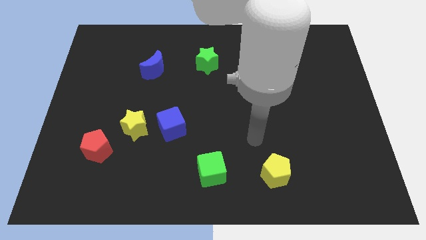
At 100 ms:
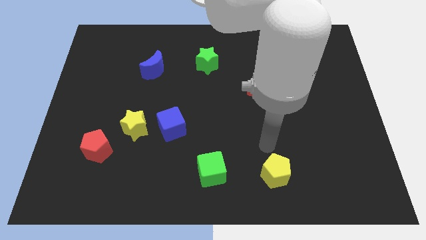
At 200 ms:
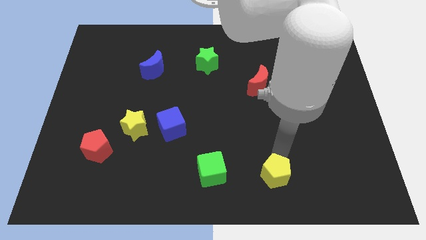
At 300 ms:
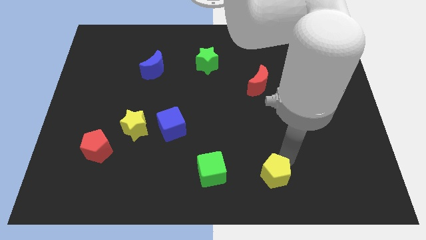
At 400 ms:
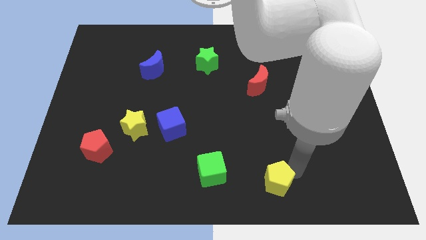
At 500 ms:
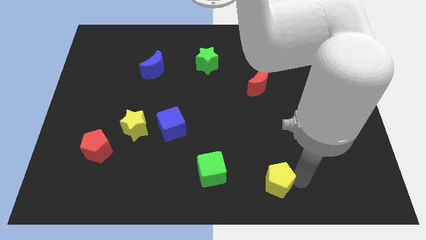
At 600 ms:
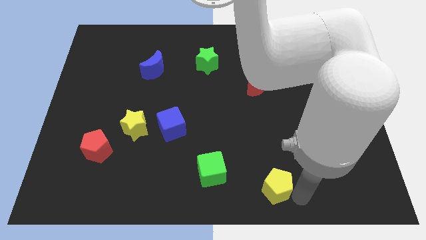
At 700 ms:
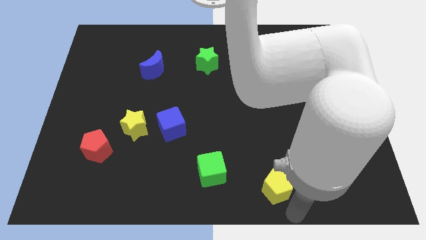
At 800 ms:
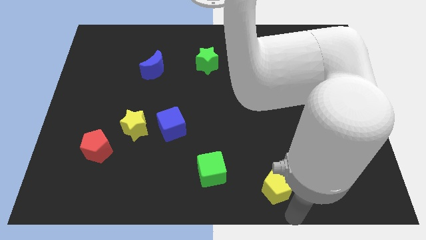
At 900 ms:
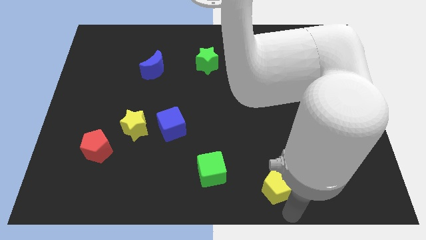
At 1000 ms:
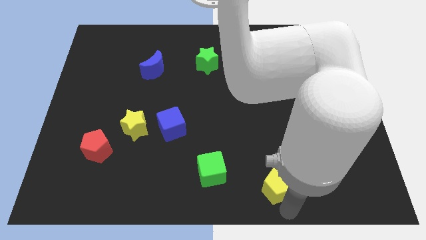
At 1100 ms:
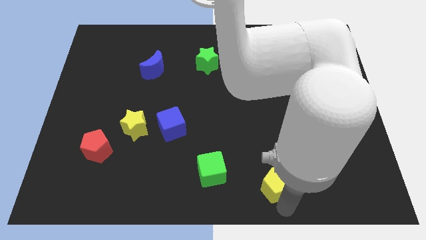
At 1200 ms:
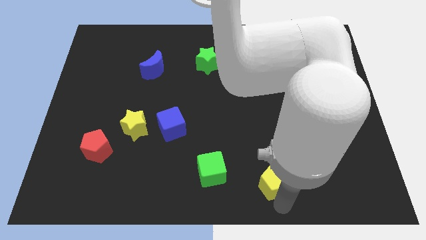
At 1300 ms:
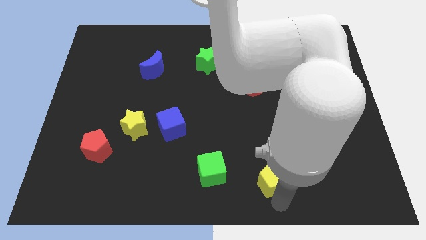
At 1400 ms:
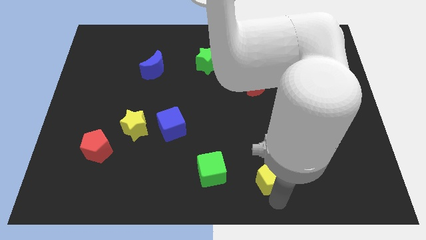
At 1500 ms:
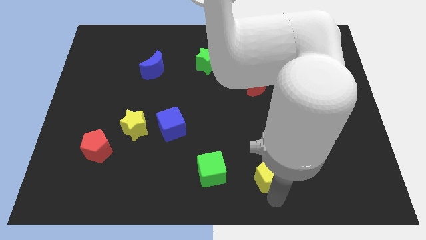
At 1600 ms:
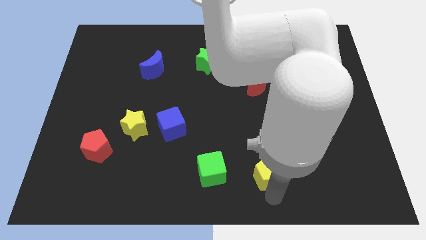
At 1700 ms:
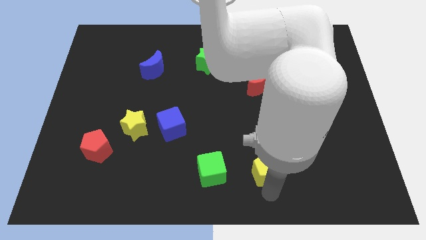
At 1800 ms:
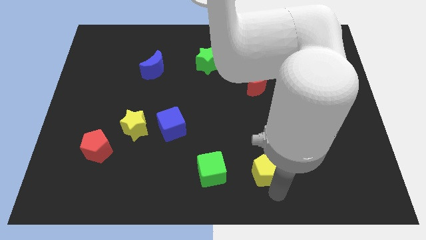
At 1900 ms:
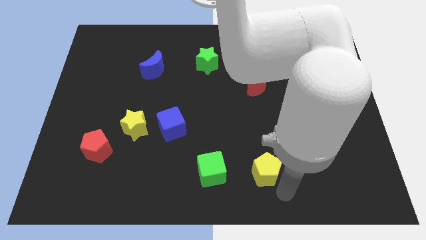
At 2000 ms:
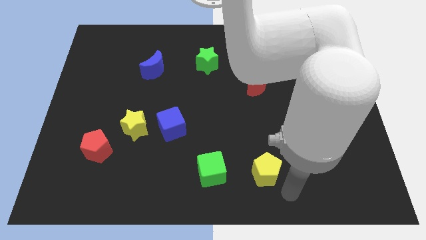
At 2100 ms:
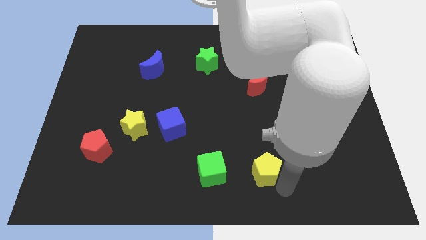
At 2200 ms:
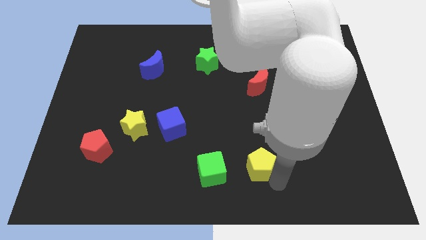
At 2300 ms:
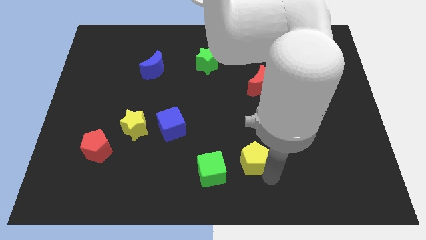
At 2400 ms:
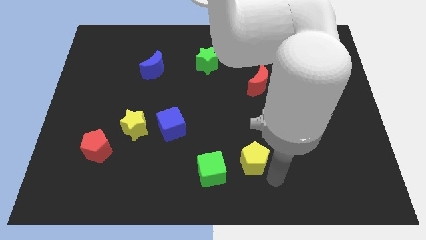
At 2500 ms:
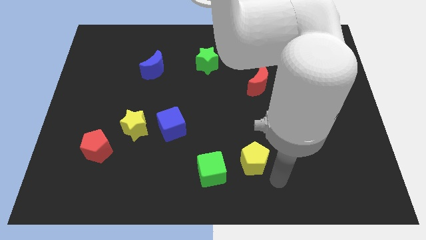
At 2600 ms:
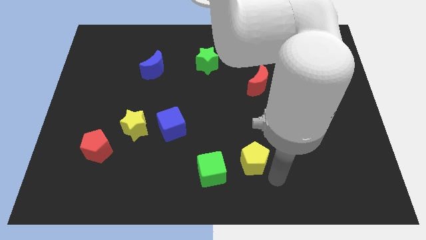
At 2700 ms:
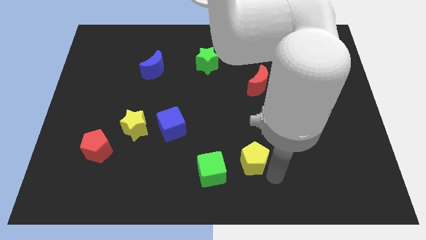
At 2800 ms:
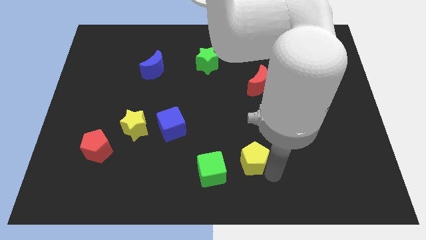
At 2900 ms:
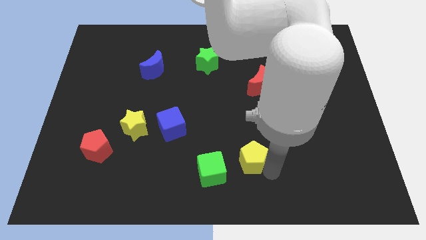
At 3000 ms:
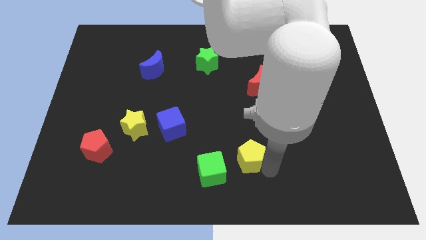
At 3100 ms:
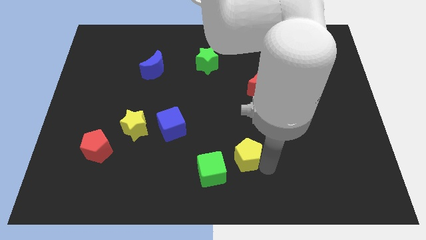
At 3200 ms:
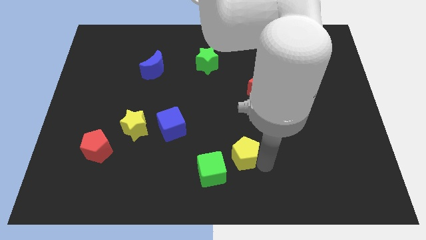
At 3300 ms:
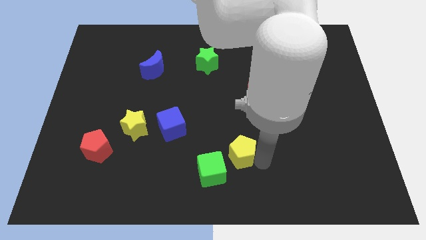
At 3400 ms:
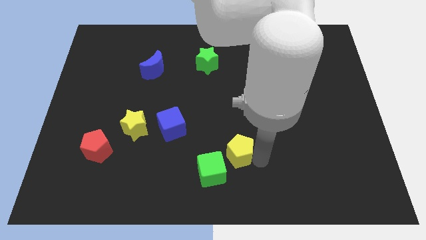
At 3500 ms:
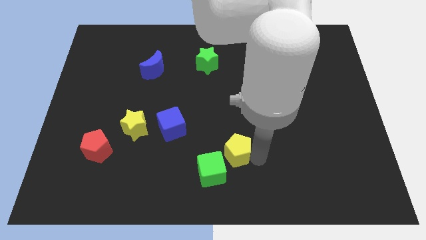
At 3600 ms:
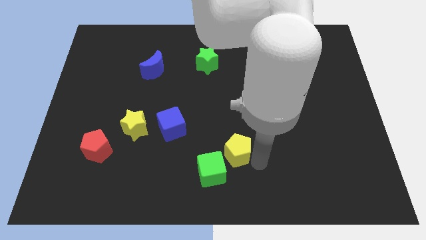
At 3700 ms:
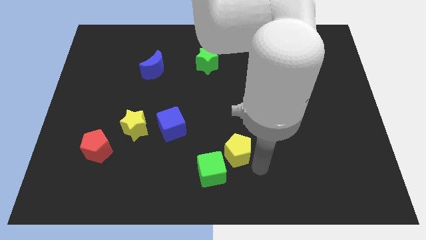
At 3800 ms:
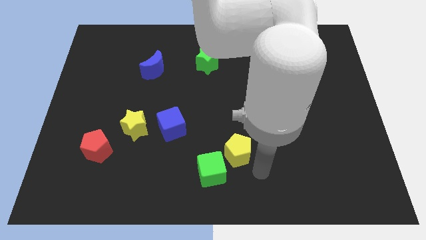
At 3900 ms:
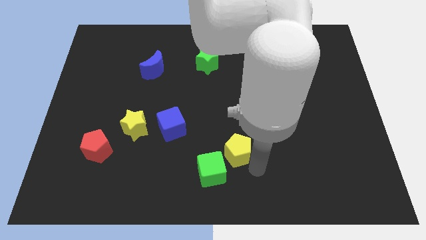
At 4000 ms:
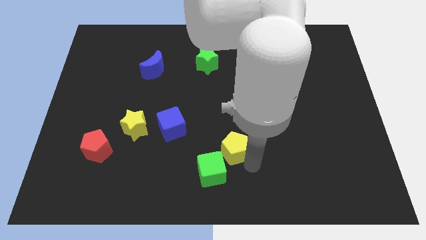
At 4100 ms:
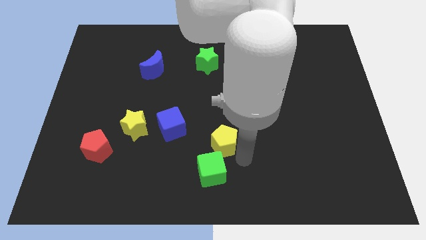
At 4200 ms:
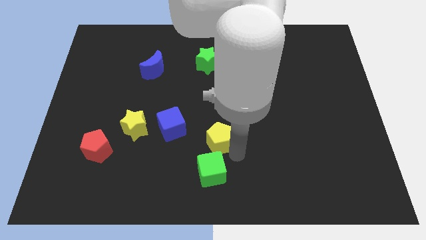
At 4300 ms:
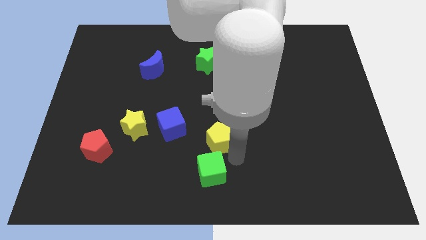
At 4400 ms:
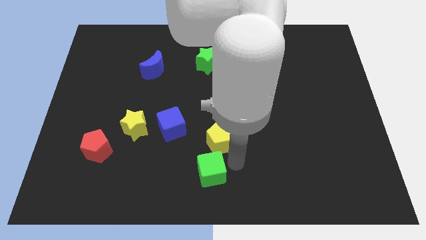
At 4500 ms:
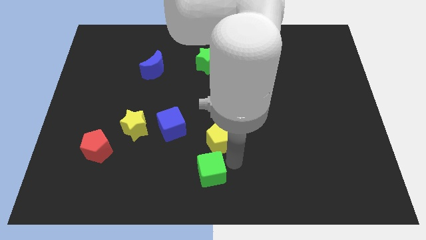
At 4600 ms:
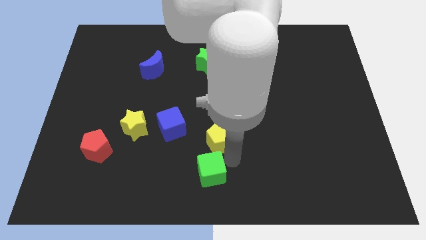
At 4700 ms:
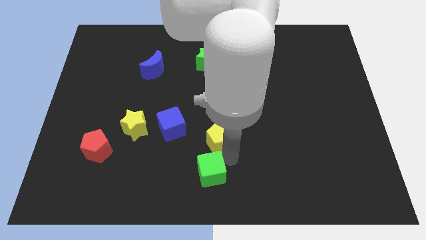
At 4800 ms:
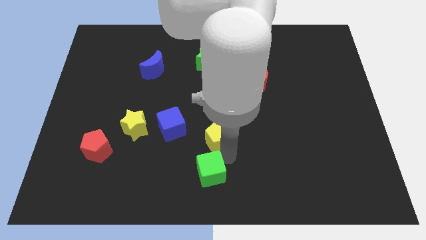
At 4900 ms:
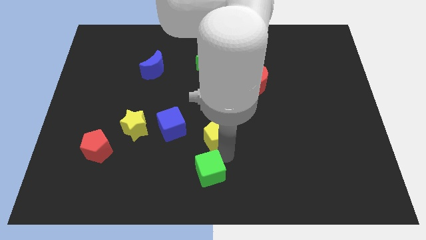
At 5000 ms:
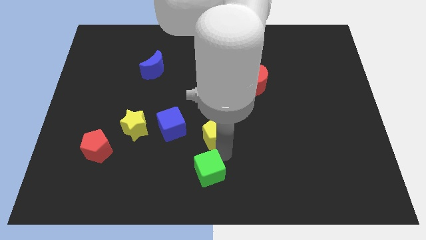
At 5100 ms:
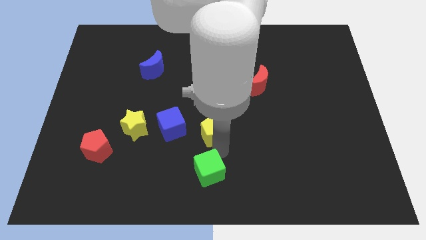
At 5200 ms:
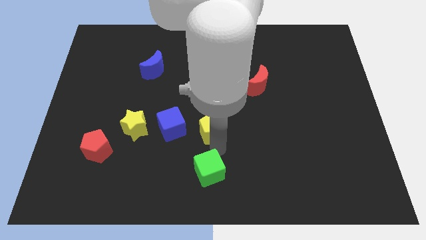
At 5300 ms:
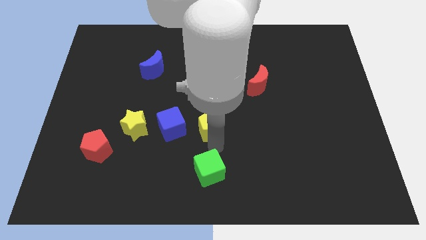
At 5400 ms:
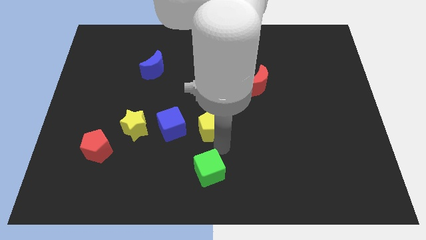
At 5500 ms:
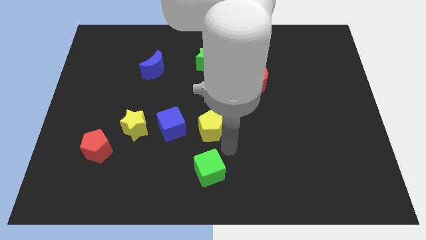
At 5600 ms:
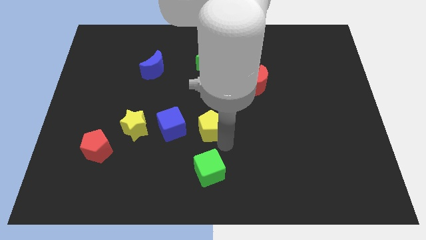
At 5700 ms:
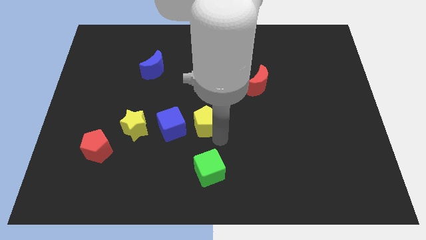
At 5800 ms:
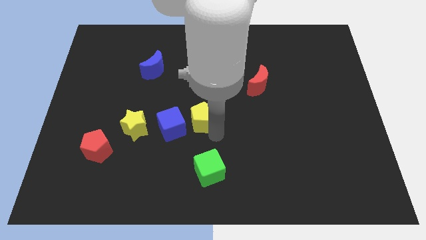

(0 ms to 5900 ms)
move the yellow pentagon upwards and left

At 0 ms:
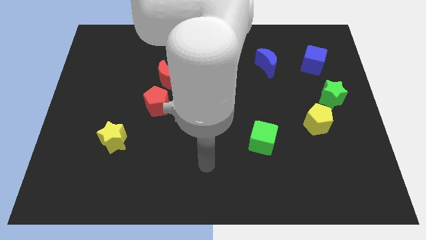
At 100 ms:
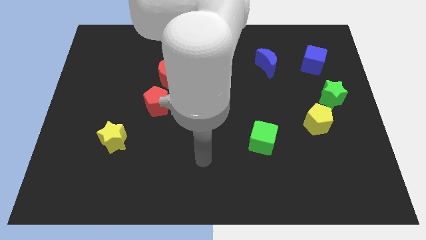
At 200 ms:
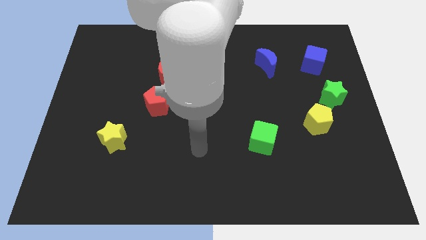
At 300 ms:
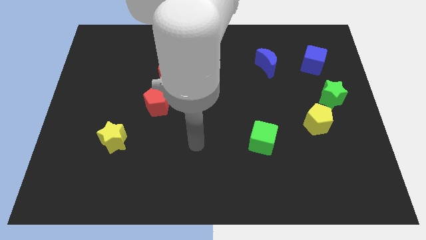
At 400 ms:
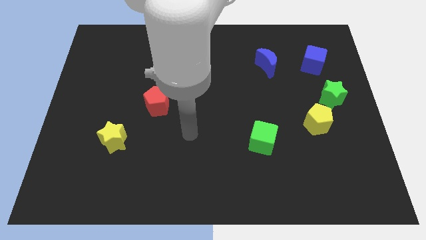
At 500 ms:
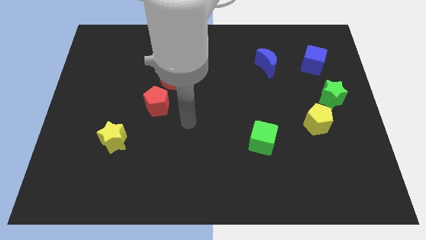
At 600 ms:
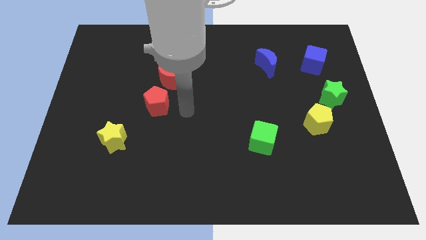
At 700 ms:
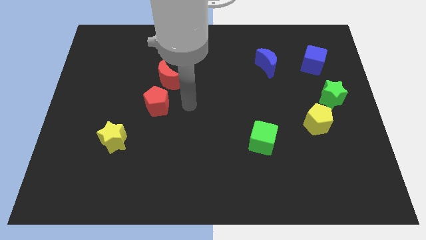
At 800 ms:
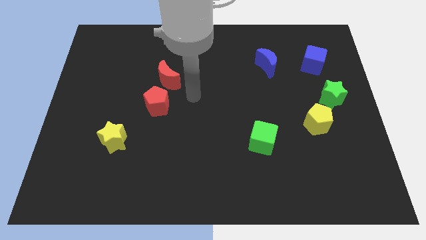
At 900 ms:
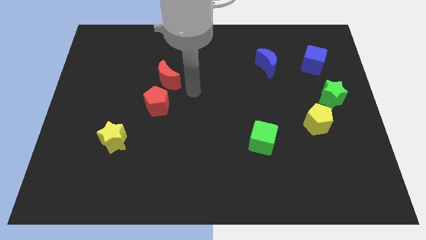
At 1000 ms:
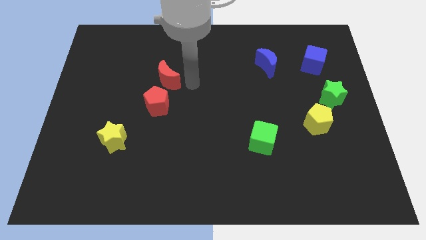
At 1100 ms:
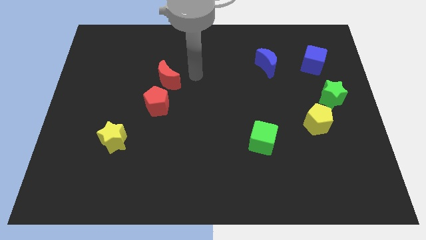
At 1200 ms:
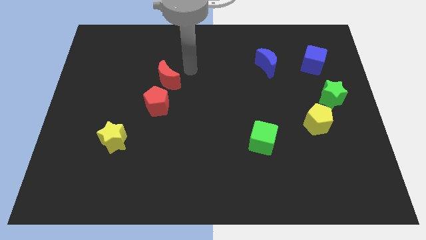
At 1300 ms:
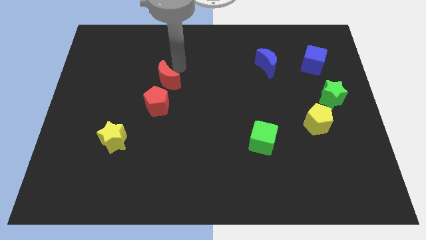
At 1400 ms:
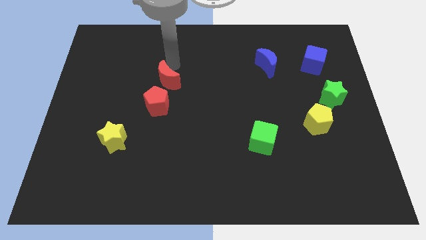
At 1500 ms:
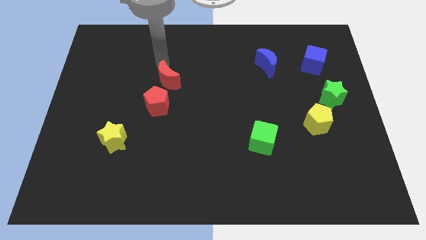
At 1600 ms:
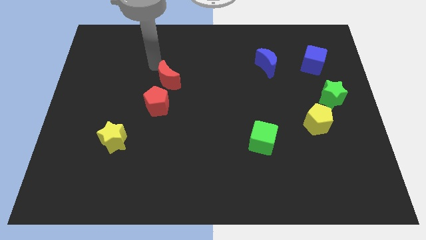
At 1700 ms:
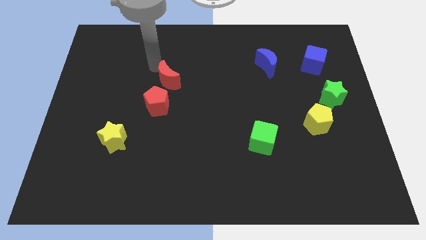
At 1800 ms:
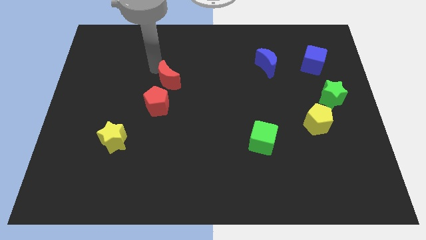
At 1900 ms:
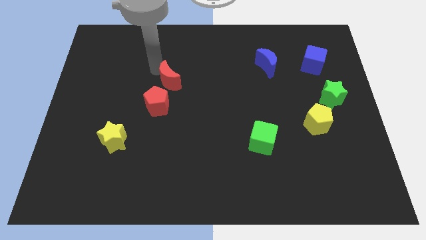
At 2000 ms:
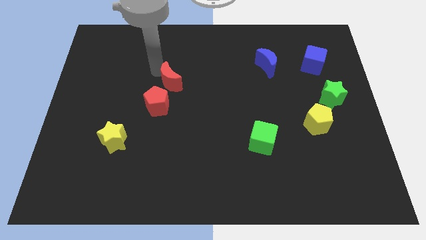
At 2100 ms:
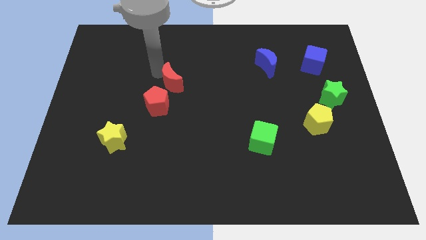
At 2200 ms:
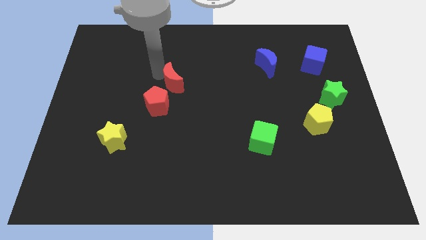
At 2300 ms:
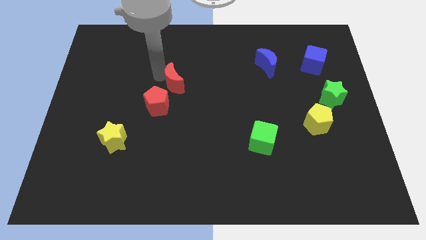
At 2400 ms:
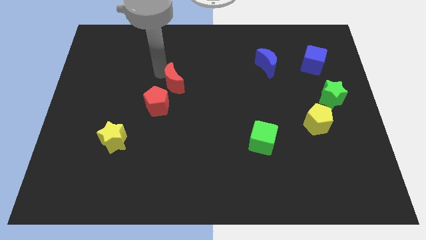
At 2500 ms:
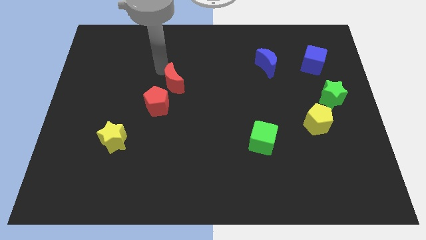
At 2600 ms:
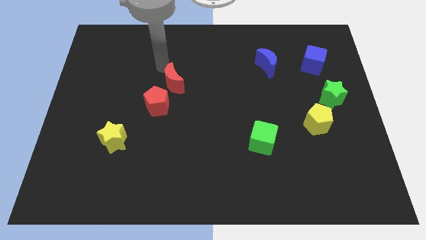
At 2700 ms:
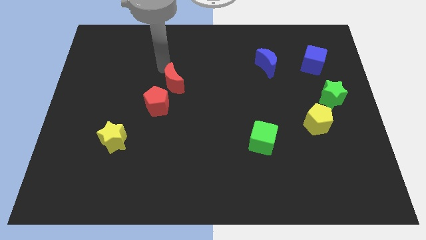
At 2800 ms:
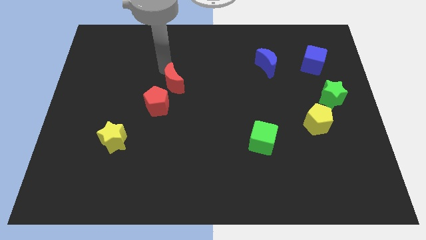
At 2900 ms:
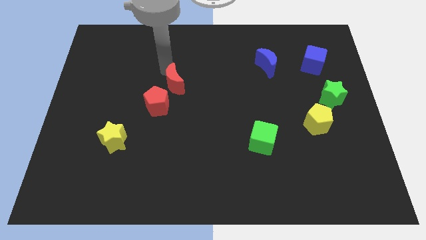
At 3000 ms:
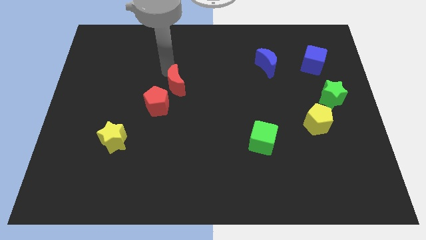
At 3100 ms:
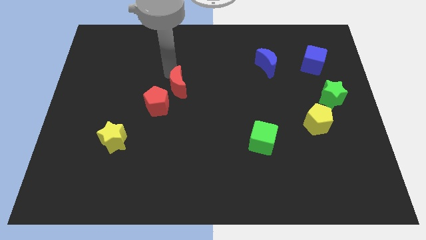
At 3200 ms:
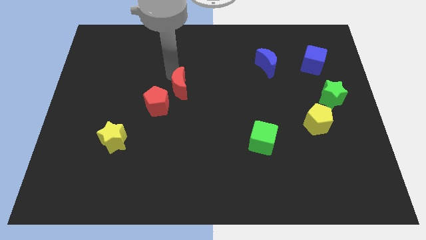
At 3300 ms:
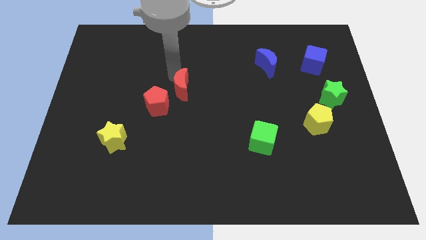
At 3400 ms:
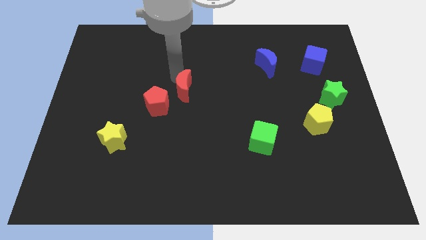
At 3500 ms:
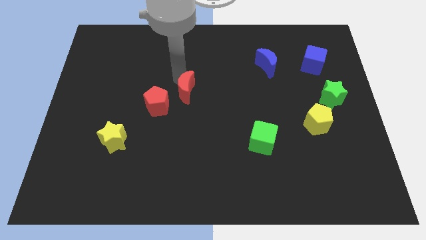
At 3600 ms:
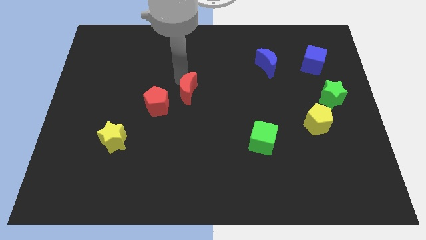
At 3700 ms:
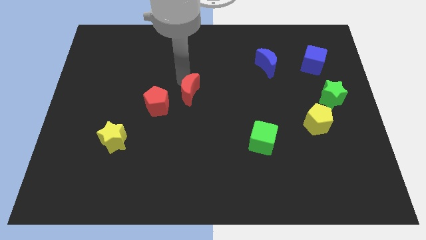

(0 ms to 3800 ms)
slide the red moon a little diagonally downwards and right
